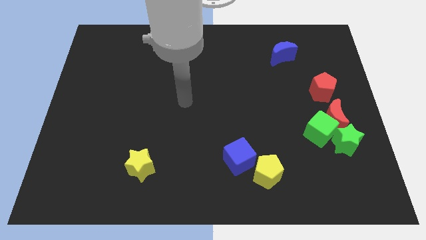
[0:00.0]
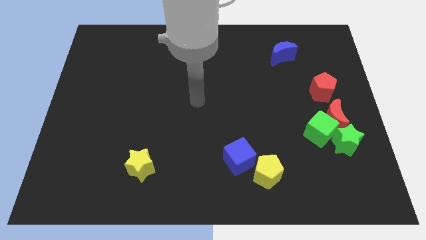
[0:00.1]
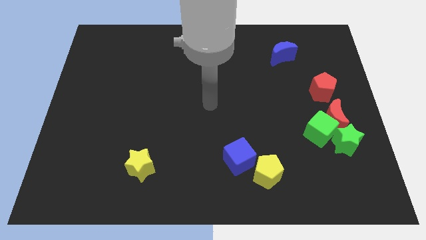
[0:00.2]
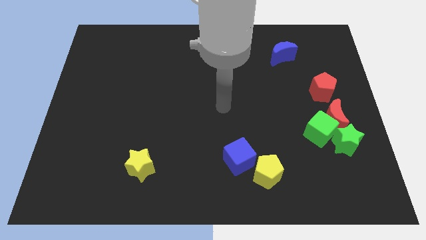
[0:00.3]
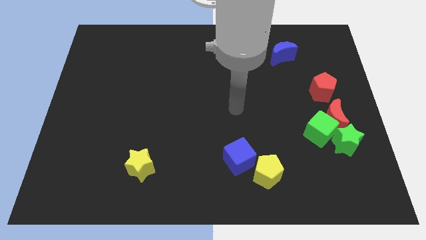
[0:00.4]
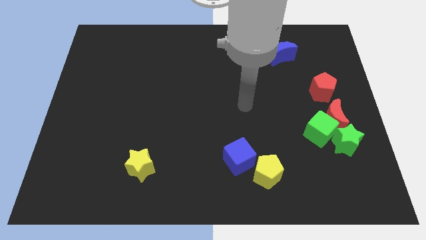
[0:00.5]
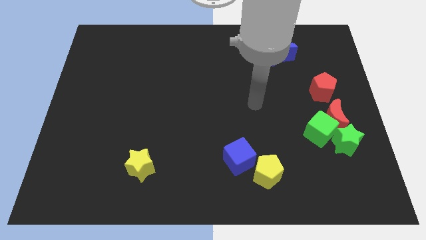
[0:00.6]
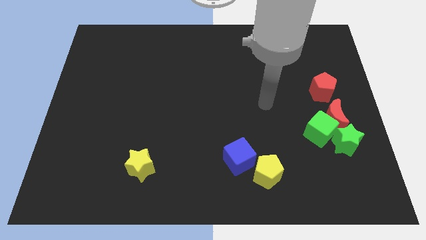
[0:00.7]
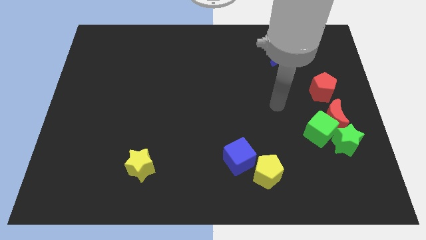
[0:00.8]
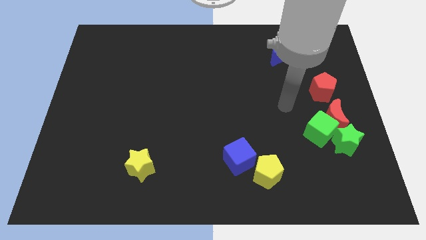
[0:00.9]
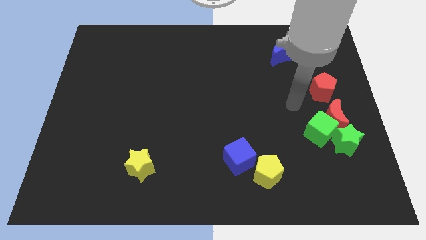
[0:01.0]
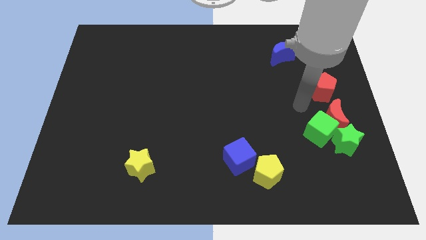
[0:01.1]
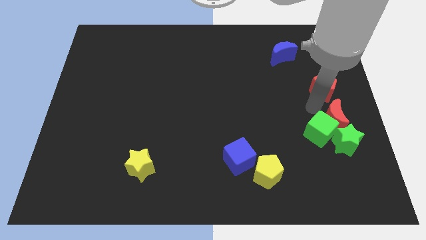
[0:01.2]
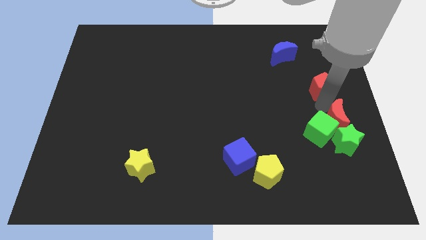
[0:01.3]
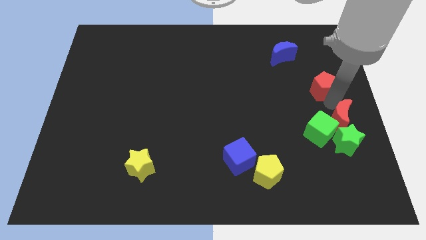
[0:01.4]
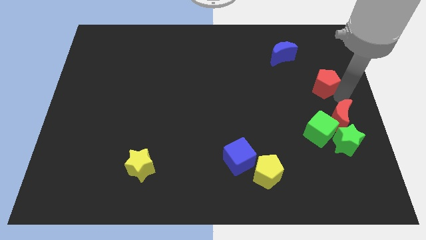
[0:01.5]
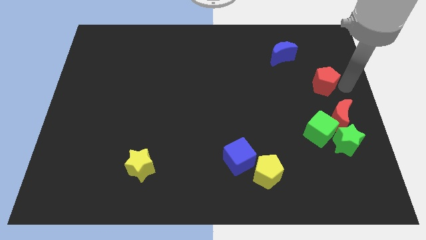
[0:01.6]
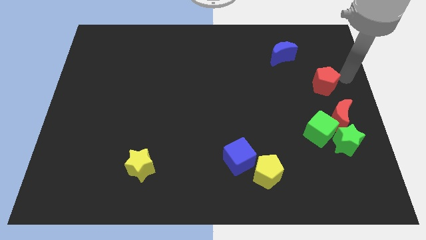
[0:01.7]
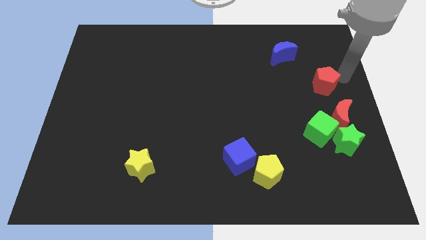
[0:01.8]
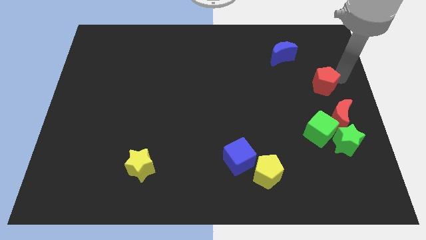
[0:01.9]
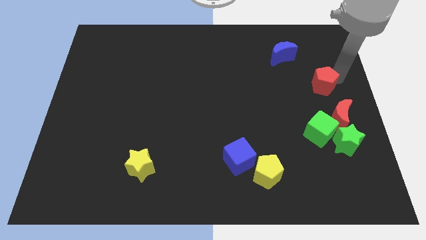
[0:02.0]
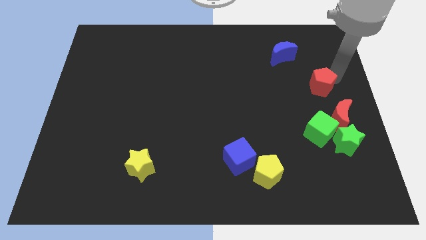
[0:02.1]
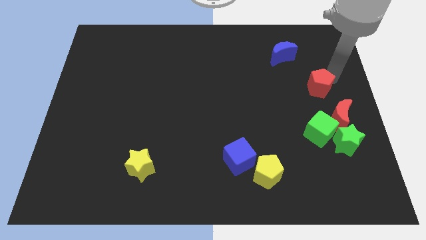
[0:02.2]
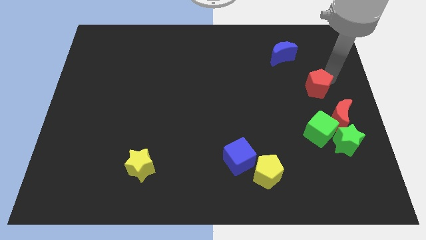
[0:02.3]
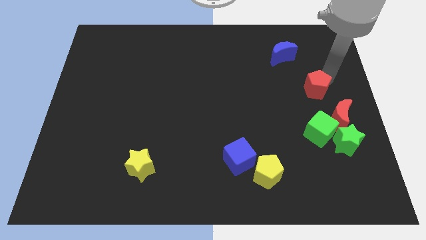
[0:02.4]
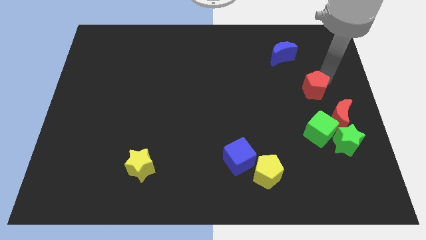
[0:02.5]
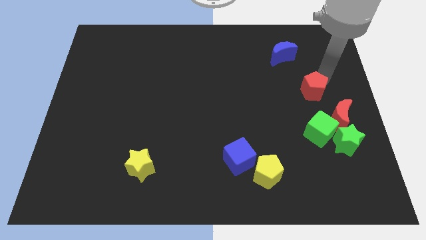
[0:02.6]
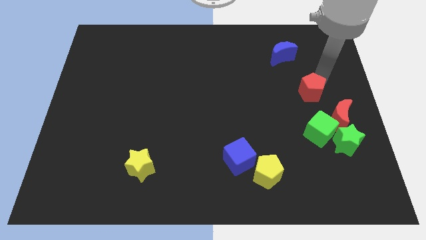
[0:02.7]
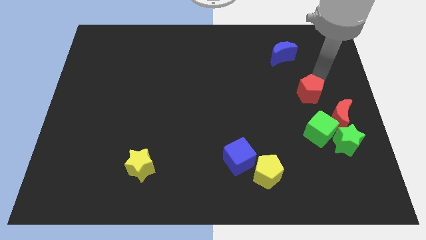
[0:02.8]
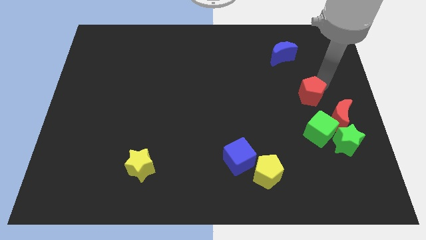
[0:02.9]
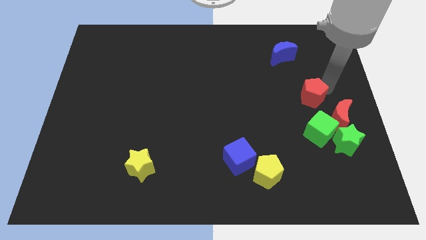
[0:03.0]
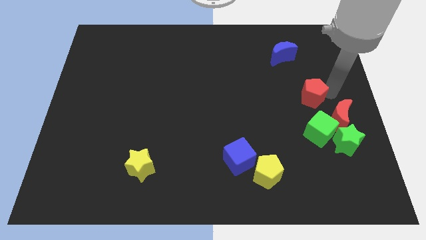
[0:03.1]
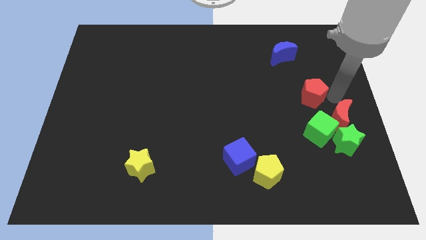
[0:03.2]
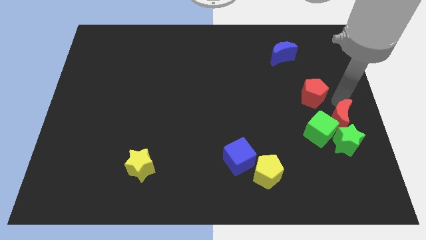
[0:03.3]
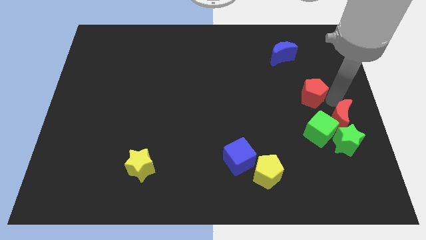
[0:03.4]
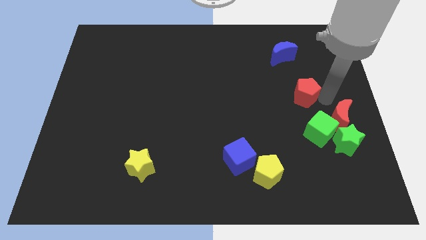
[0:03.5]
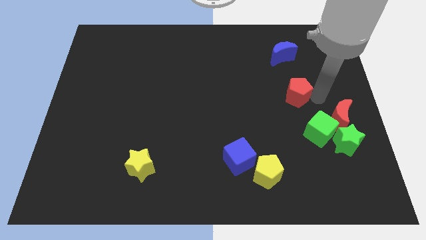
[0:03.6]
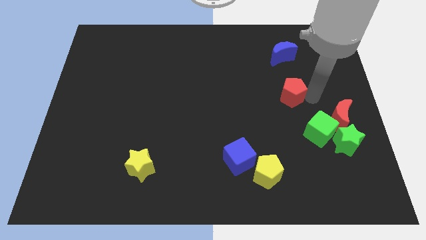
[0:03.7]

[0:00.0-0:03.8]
slide the red pentagon left slightly

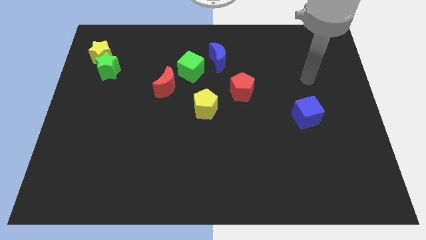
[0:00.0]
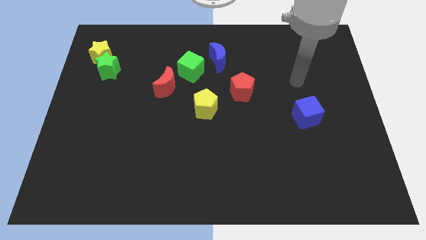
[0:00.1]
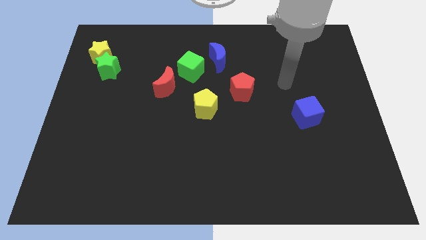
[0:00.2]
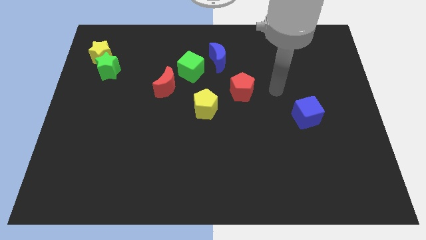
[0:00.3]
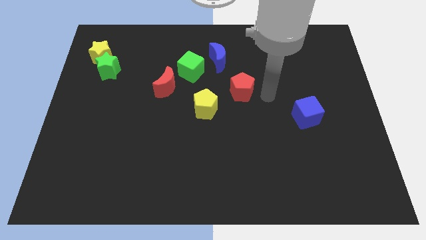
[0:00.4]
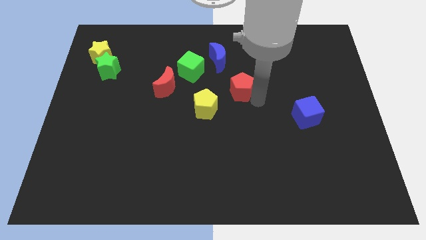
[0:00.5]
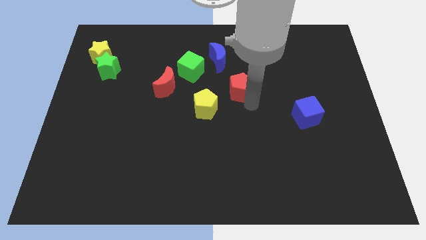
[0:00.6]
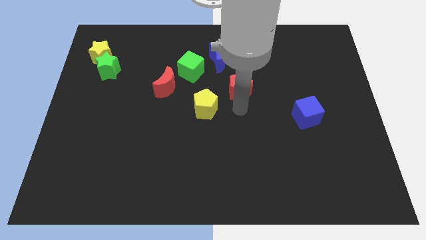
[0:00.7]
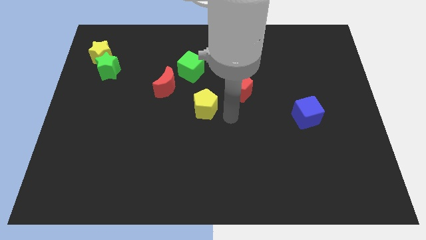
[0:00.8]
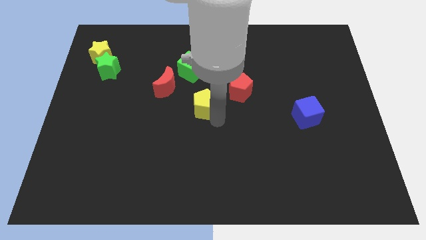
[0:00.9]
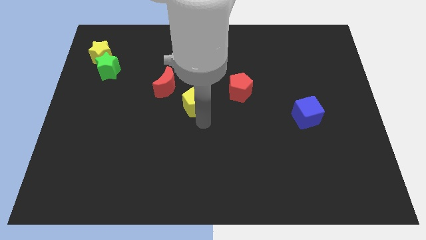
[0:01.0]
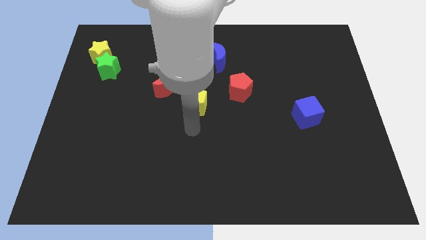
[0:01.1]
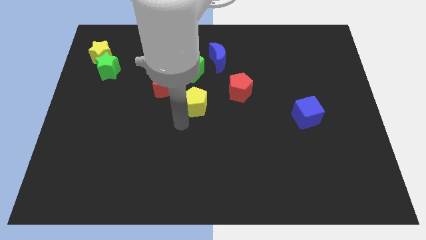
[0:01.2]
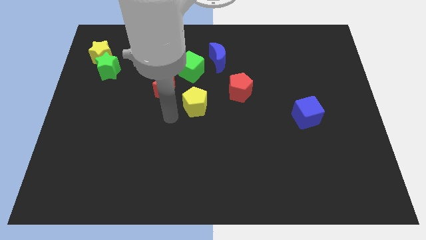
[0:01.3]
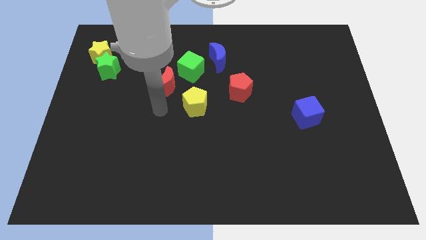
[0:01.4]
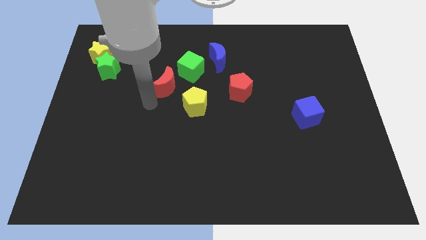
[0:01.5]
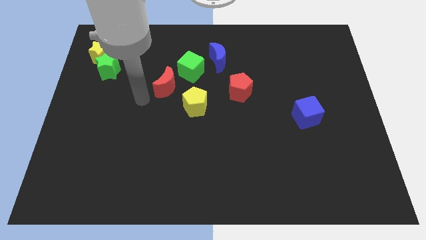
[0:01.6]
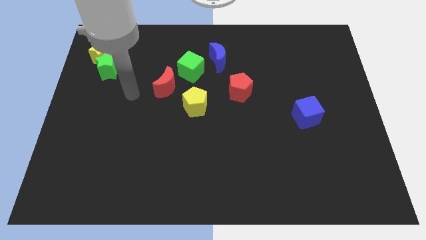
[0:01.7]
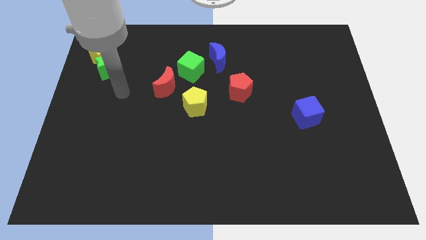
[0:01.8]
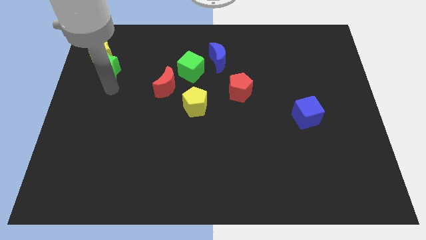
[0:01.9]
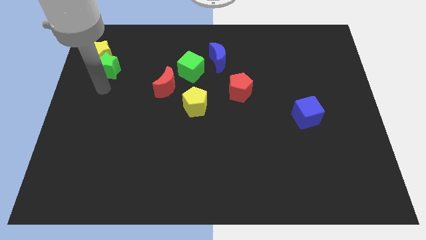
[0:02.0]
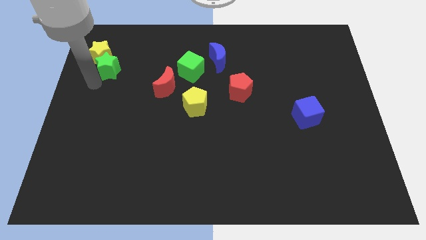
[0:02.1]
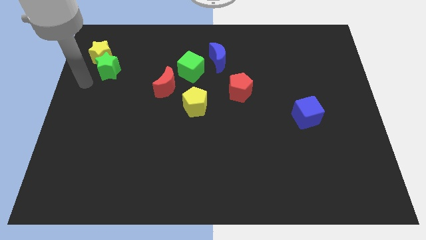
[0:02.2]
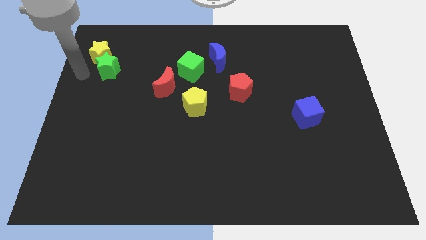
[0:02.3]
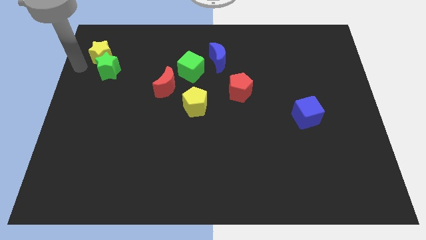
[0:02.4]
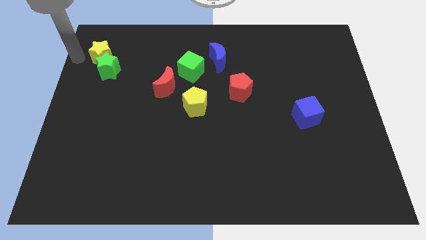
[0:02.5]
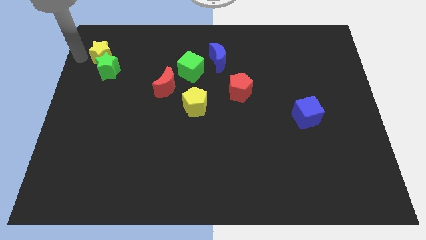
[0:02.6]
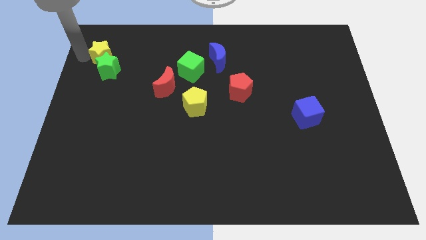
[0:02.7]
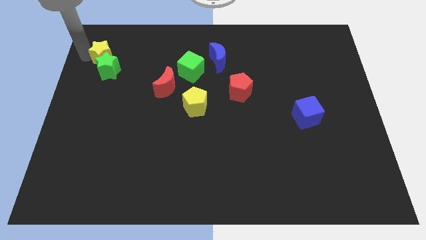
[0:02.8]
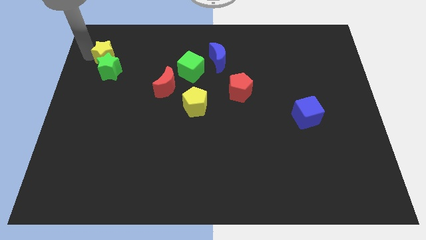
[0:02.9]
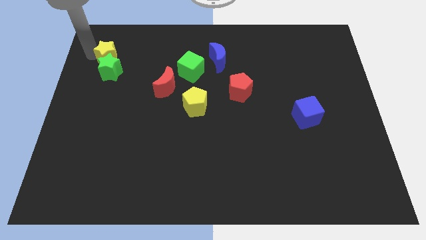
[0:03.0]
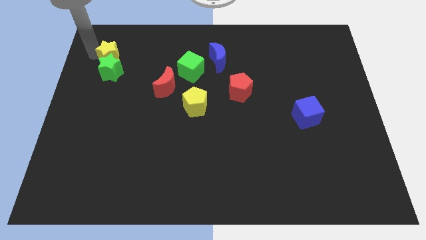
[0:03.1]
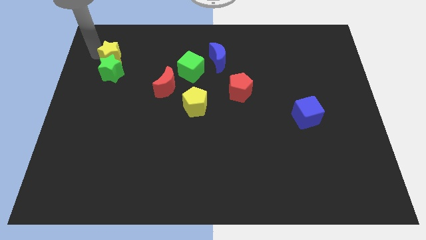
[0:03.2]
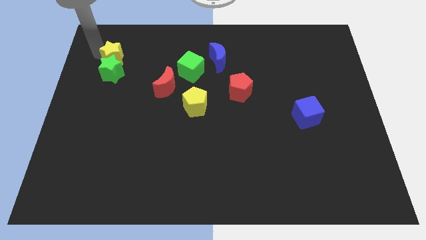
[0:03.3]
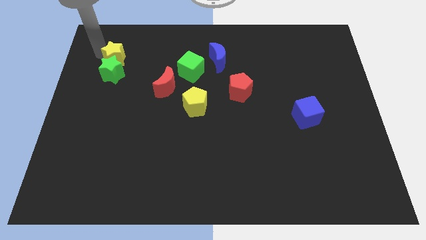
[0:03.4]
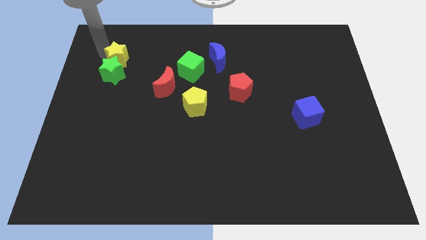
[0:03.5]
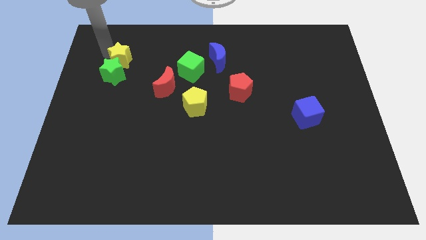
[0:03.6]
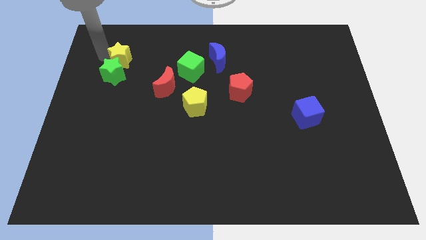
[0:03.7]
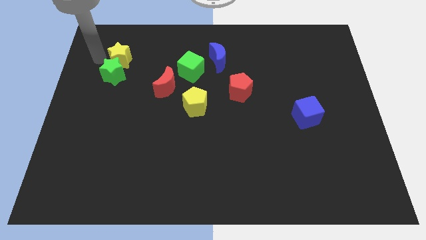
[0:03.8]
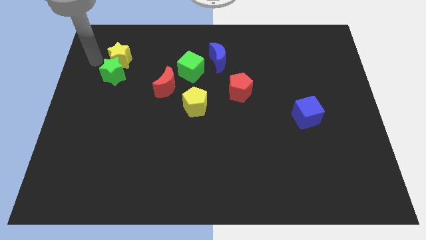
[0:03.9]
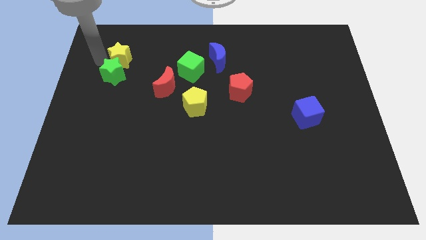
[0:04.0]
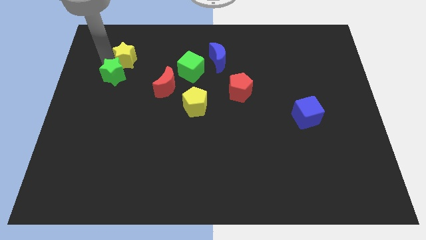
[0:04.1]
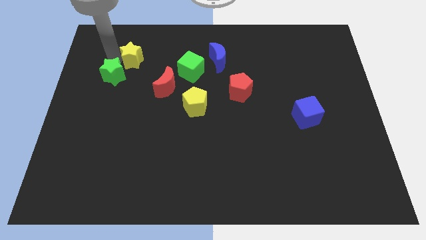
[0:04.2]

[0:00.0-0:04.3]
move the yellow star right somewhat
